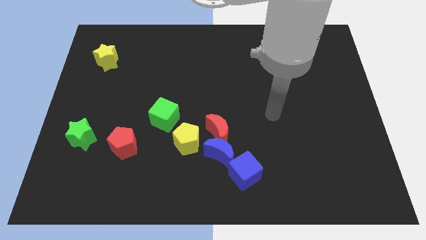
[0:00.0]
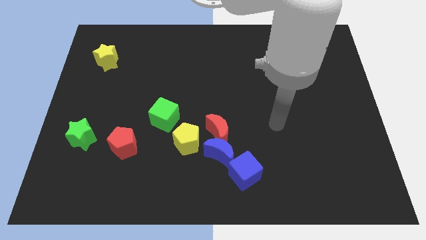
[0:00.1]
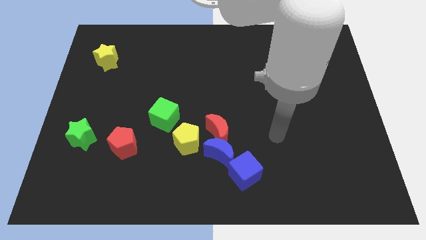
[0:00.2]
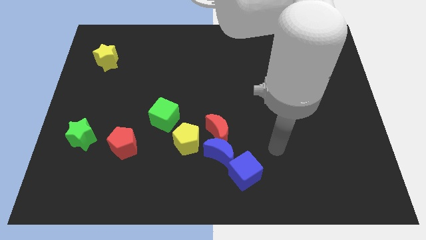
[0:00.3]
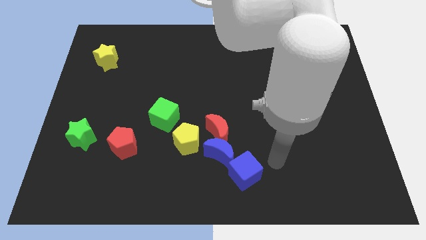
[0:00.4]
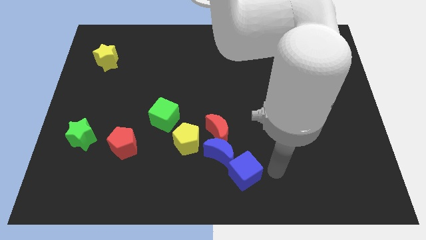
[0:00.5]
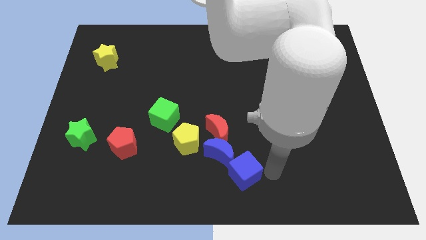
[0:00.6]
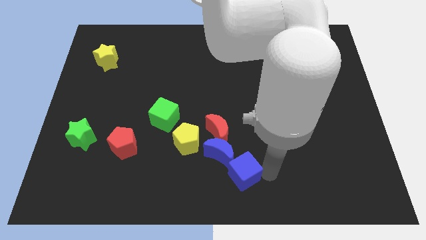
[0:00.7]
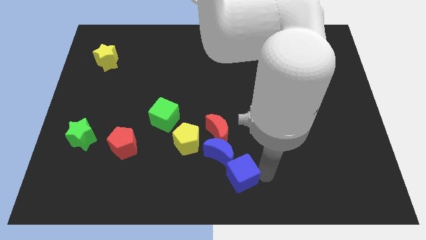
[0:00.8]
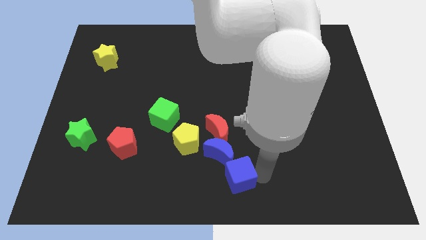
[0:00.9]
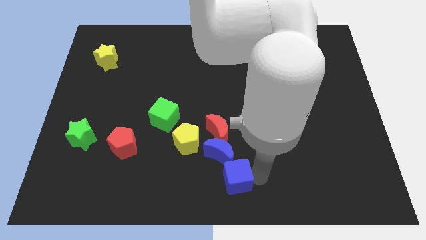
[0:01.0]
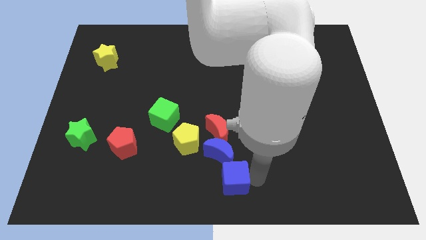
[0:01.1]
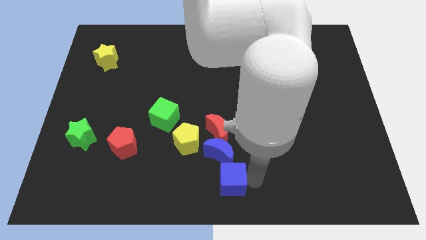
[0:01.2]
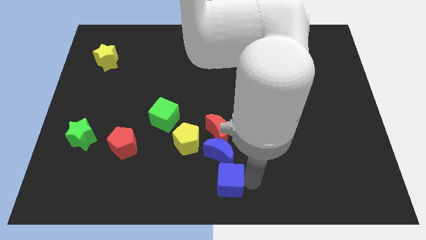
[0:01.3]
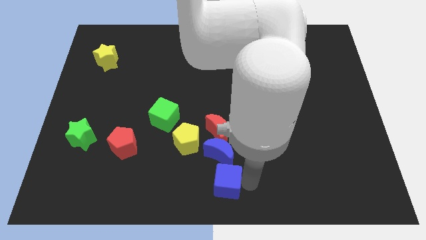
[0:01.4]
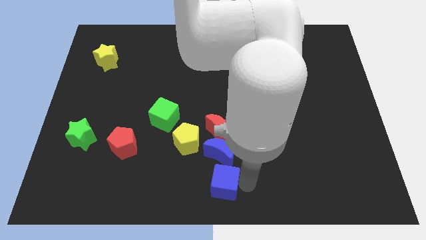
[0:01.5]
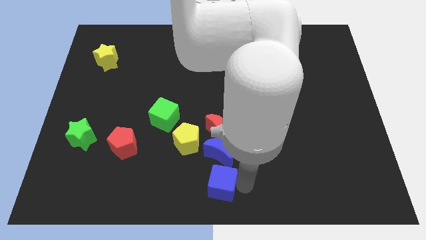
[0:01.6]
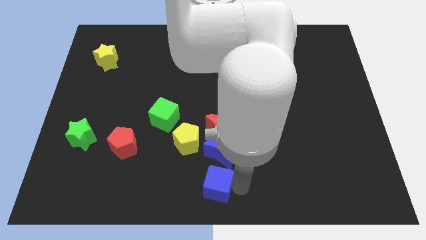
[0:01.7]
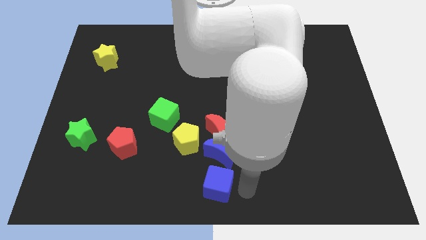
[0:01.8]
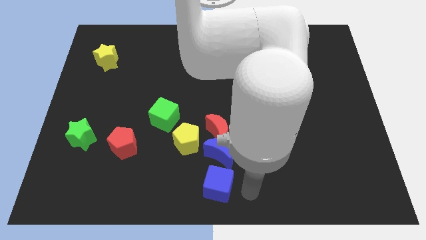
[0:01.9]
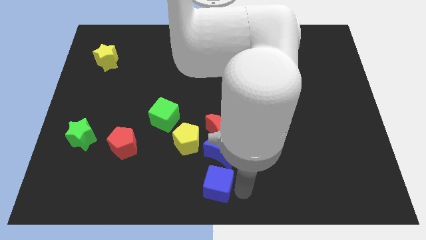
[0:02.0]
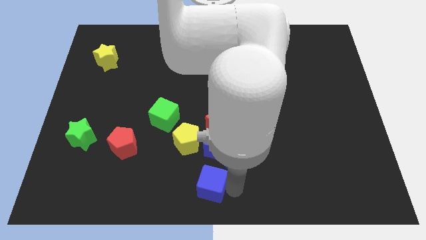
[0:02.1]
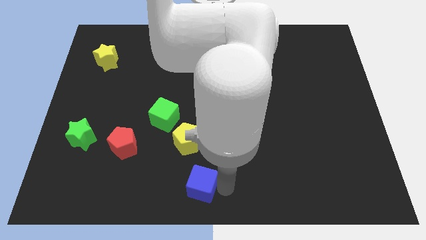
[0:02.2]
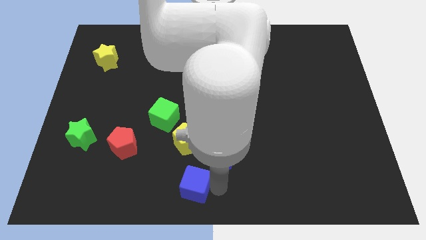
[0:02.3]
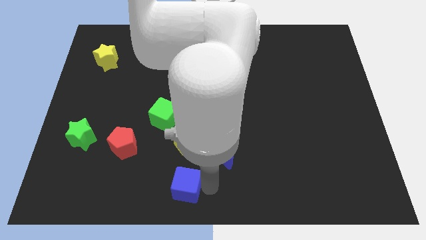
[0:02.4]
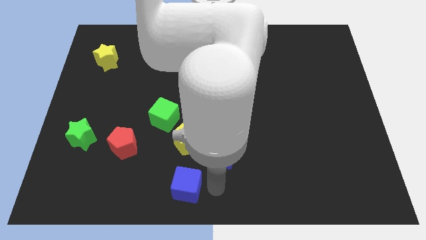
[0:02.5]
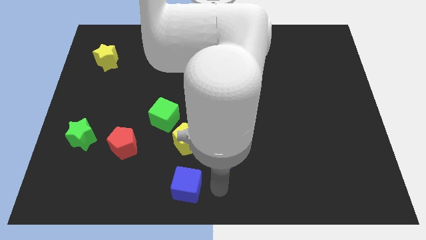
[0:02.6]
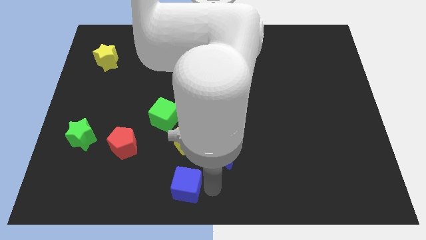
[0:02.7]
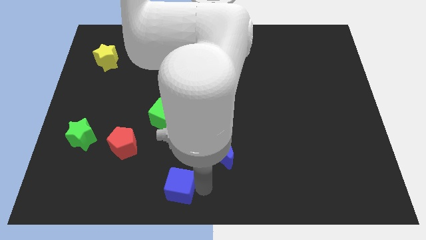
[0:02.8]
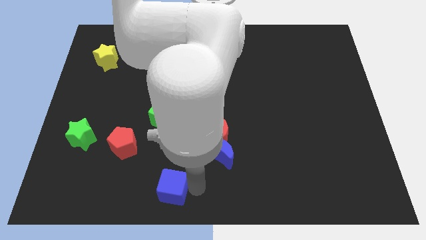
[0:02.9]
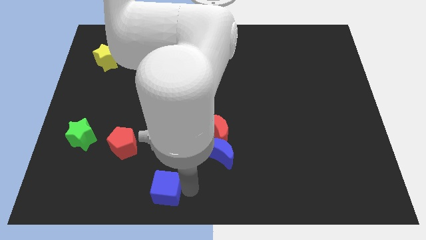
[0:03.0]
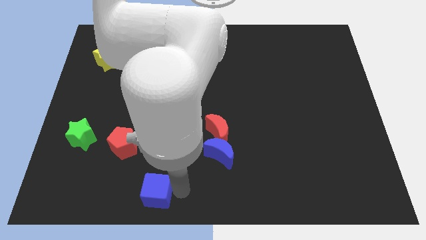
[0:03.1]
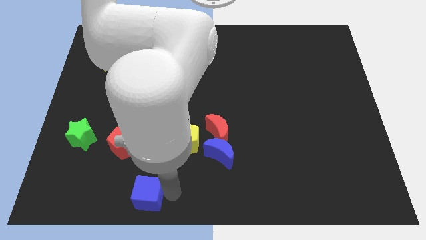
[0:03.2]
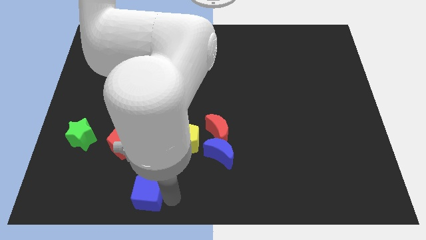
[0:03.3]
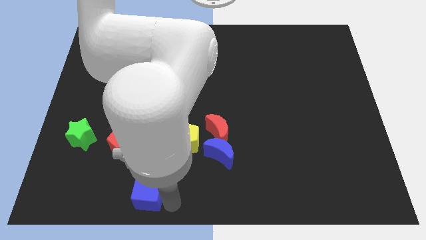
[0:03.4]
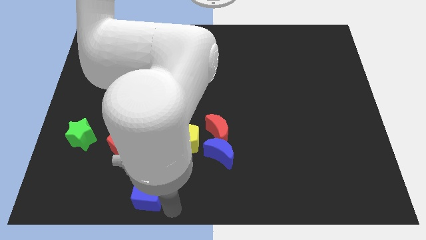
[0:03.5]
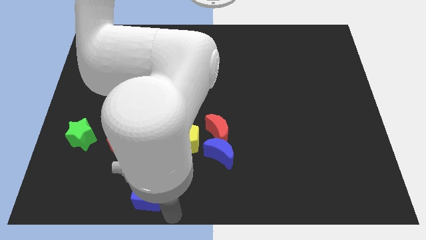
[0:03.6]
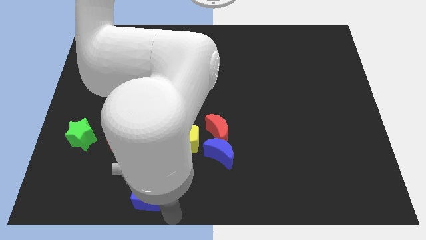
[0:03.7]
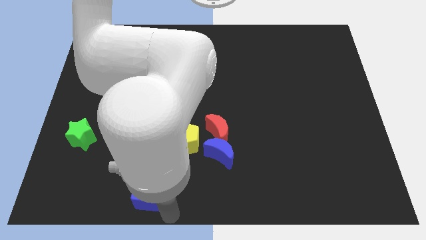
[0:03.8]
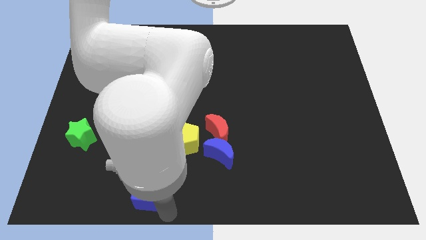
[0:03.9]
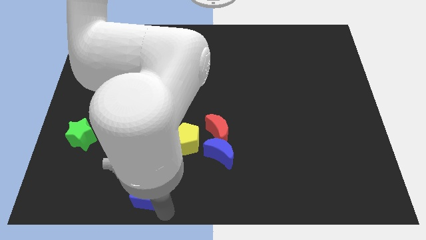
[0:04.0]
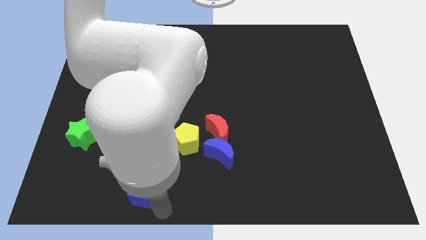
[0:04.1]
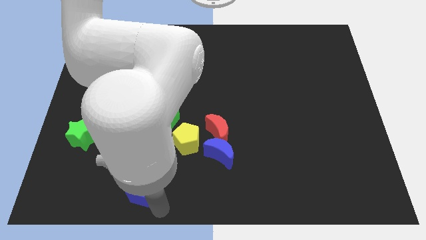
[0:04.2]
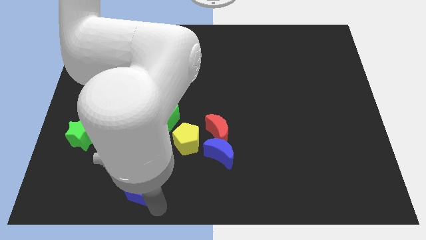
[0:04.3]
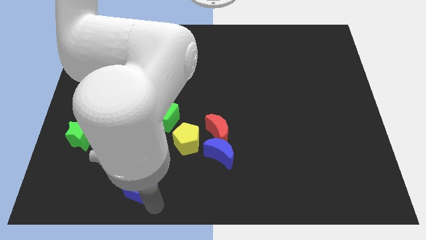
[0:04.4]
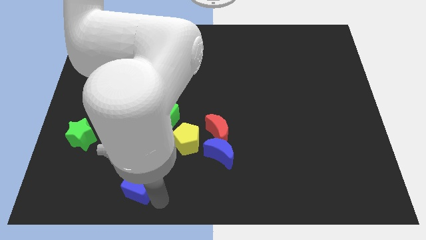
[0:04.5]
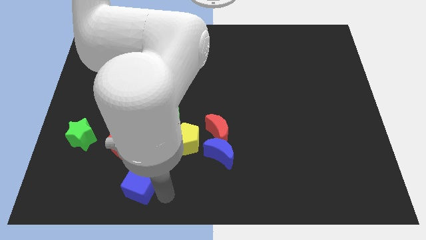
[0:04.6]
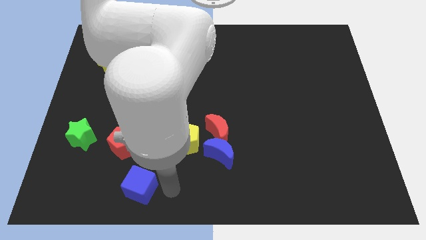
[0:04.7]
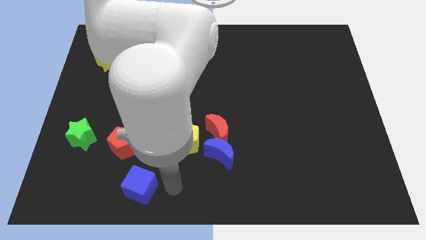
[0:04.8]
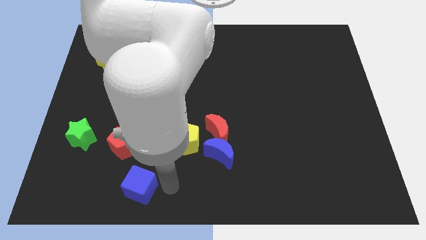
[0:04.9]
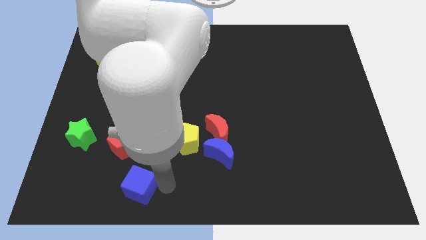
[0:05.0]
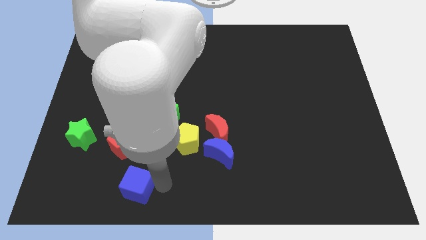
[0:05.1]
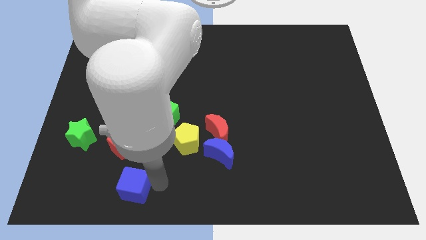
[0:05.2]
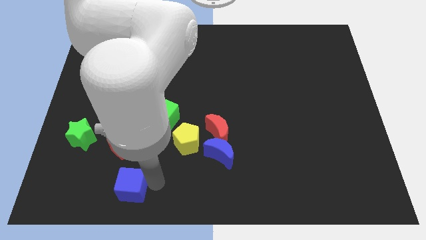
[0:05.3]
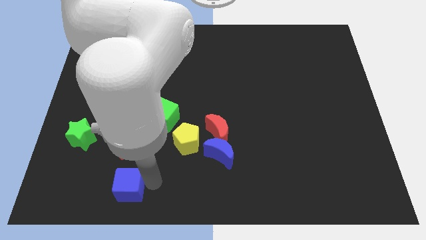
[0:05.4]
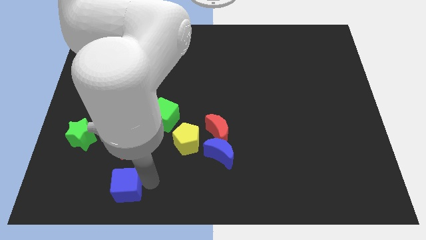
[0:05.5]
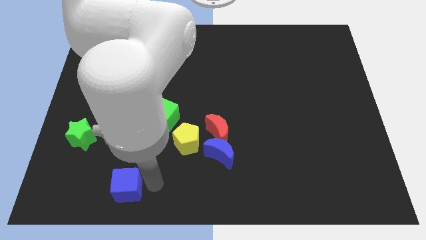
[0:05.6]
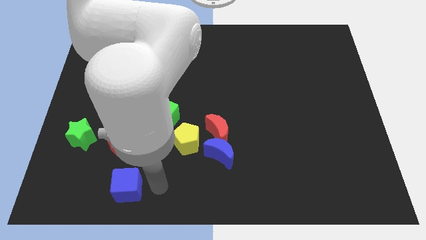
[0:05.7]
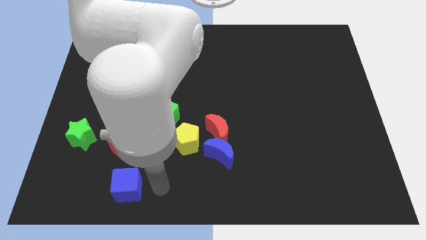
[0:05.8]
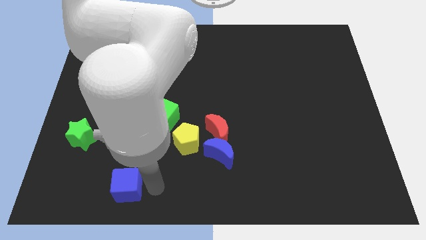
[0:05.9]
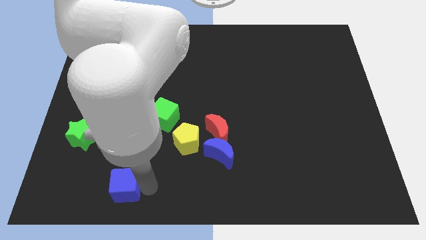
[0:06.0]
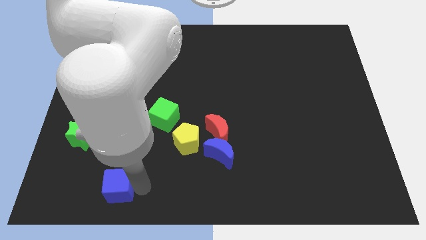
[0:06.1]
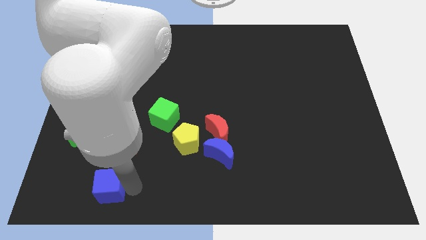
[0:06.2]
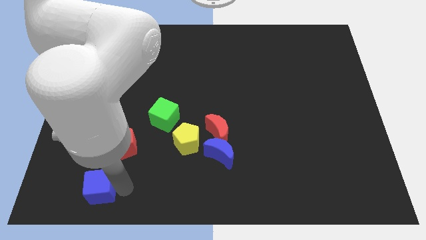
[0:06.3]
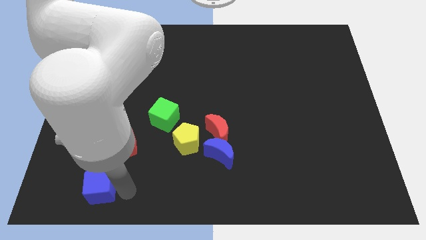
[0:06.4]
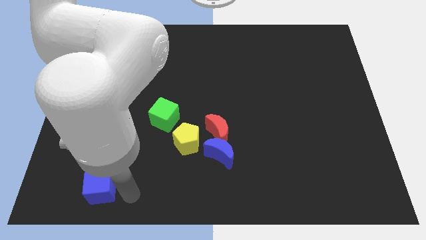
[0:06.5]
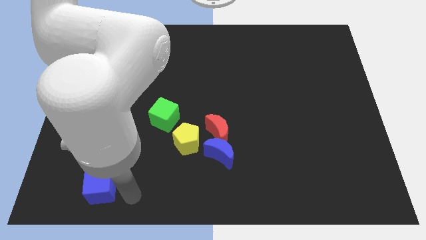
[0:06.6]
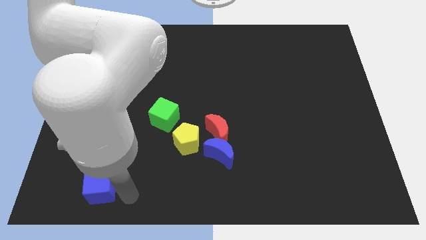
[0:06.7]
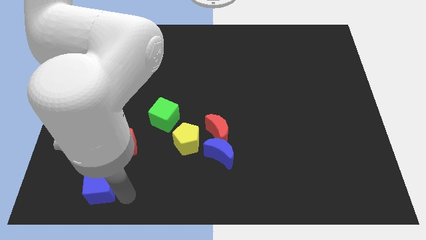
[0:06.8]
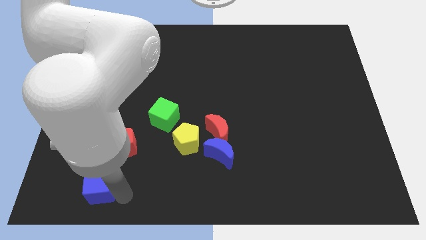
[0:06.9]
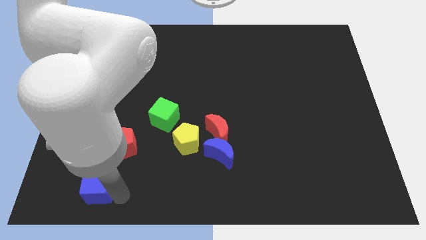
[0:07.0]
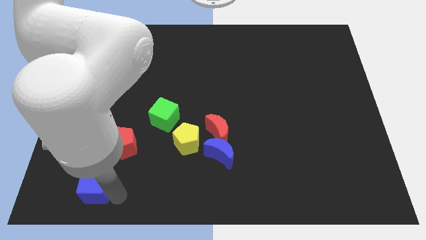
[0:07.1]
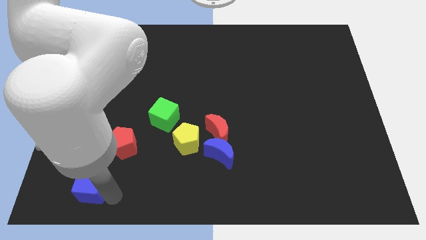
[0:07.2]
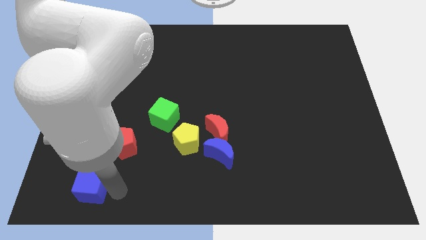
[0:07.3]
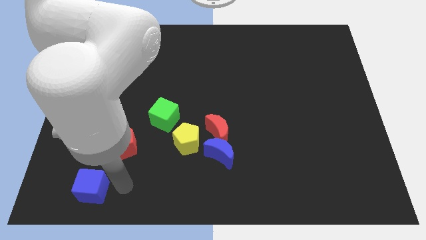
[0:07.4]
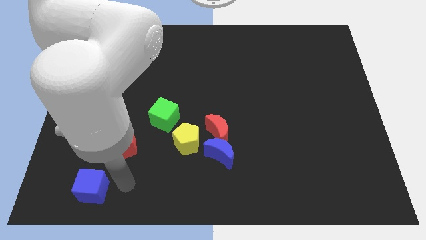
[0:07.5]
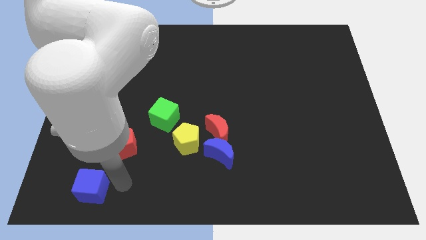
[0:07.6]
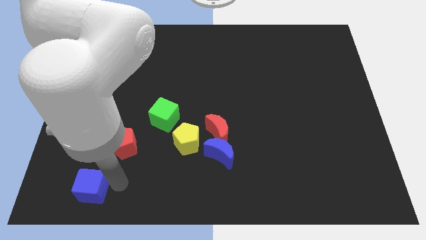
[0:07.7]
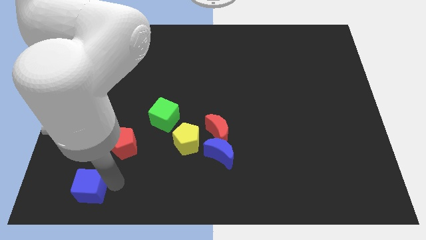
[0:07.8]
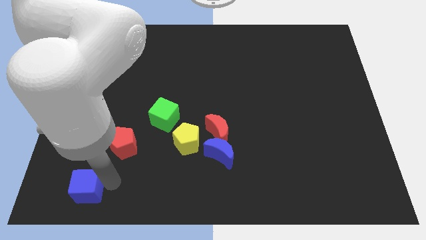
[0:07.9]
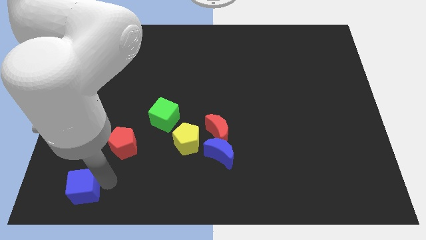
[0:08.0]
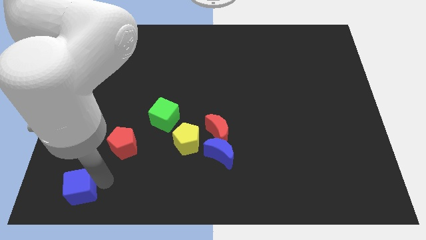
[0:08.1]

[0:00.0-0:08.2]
slide the blue cube to the bottom left of the board
